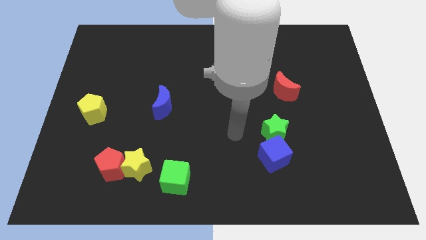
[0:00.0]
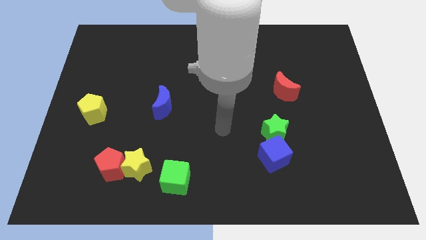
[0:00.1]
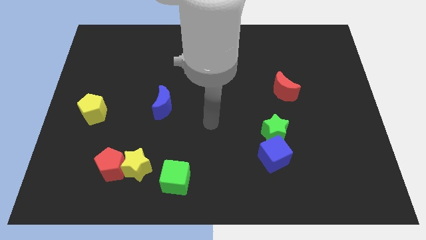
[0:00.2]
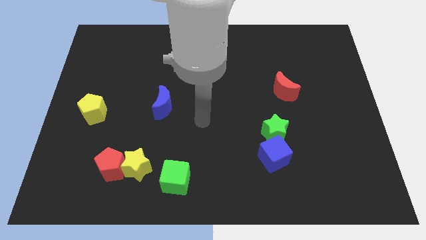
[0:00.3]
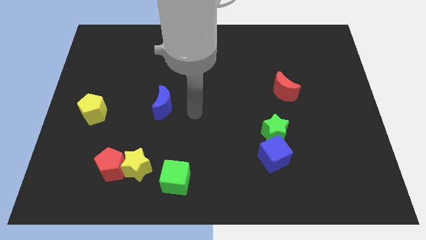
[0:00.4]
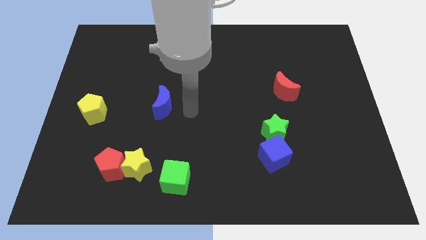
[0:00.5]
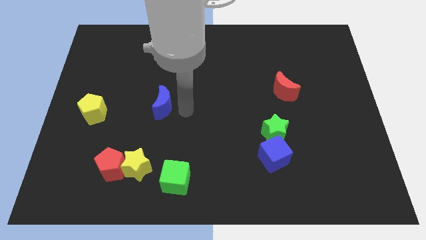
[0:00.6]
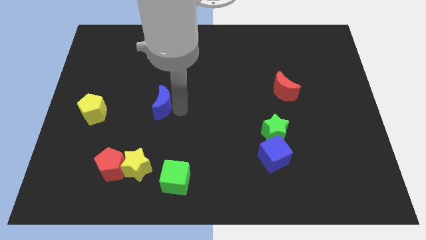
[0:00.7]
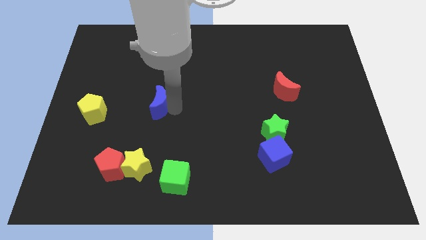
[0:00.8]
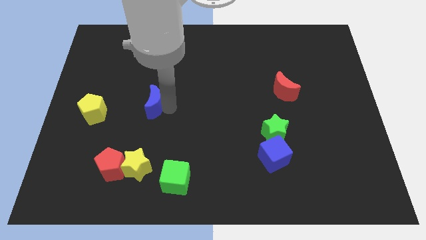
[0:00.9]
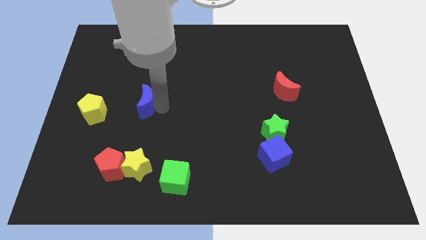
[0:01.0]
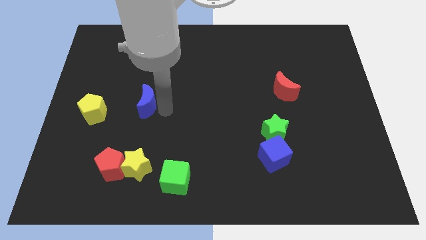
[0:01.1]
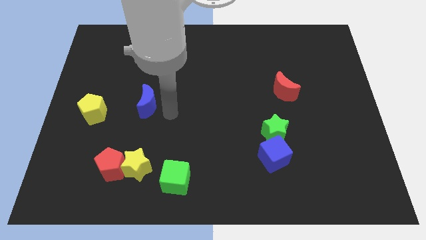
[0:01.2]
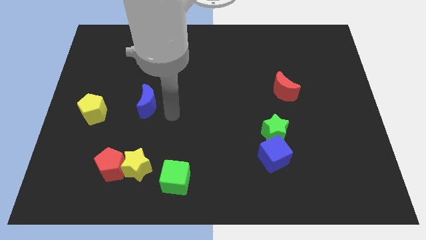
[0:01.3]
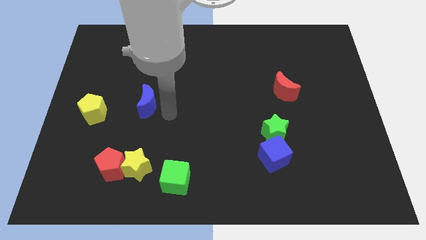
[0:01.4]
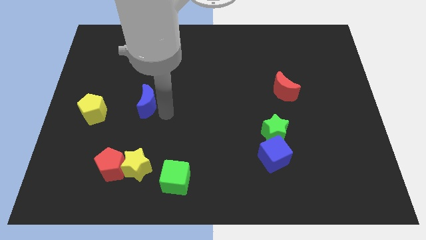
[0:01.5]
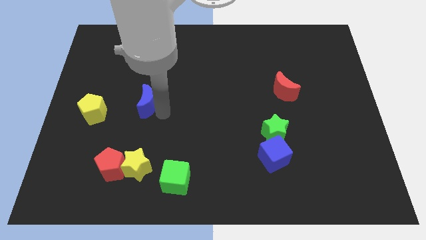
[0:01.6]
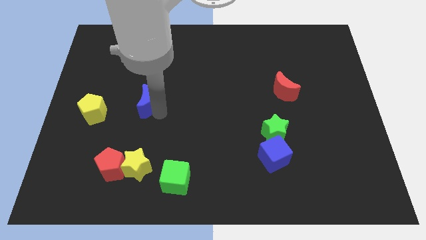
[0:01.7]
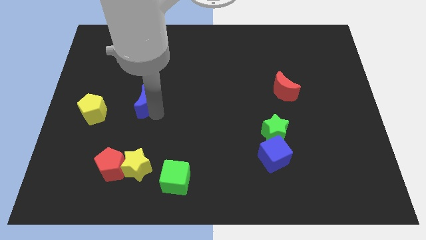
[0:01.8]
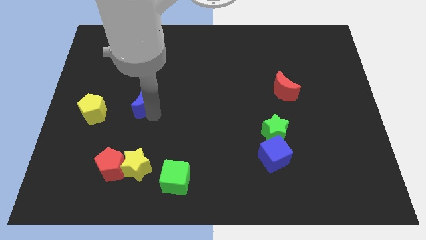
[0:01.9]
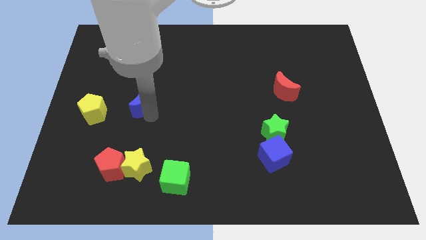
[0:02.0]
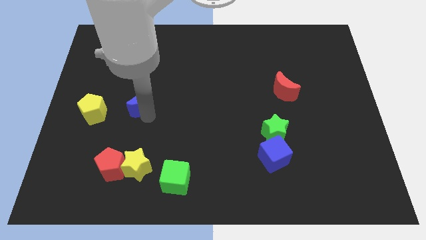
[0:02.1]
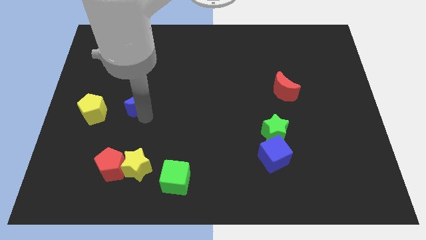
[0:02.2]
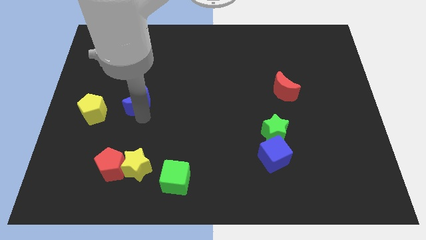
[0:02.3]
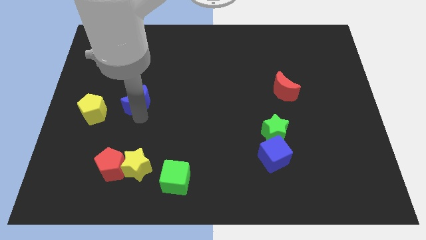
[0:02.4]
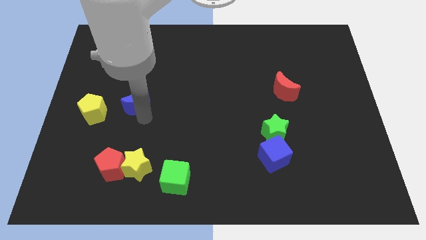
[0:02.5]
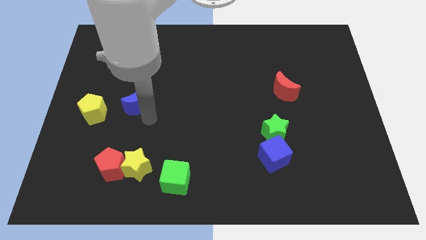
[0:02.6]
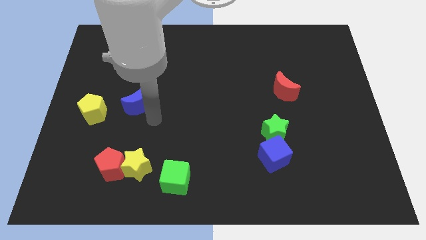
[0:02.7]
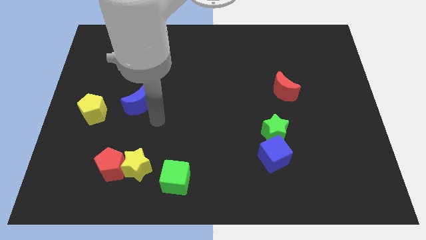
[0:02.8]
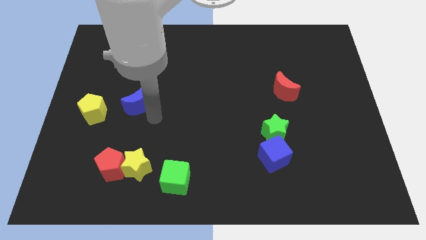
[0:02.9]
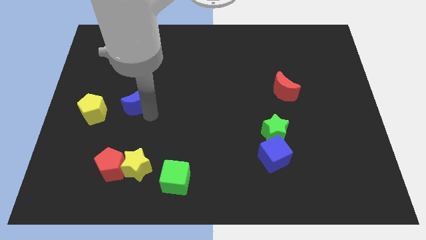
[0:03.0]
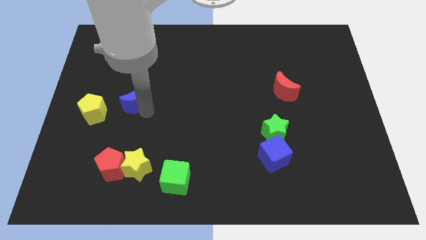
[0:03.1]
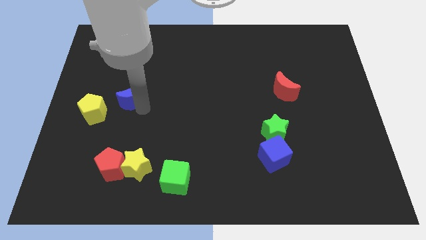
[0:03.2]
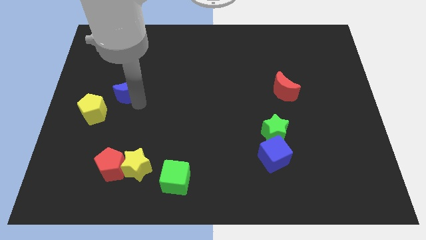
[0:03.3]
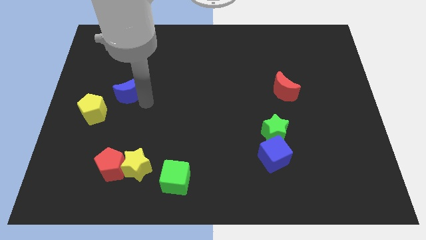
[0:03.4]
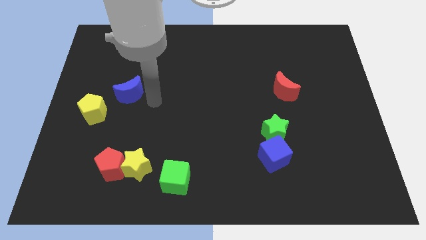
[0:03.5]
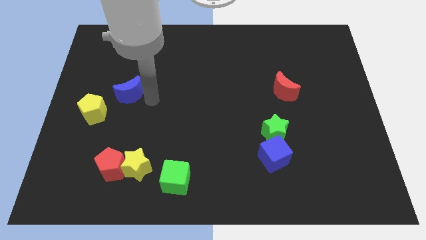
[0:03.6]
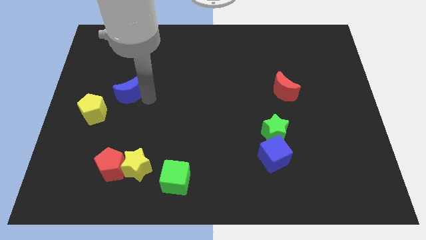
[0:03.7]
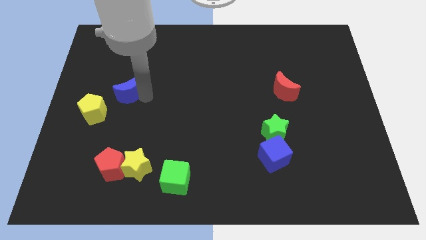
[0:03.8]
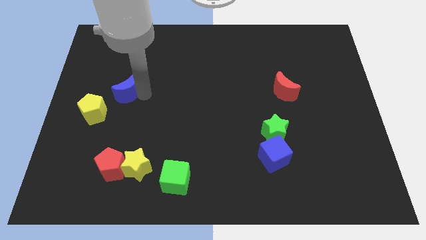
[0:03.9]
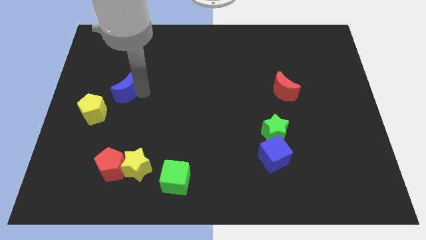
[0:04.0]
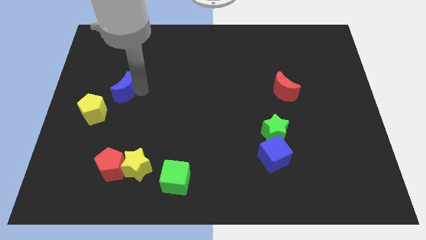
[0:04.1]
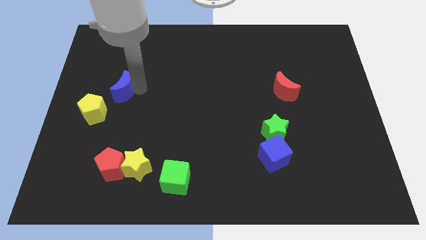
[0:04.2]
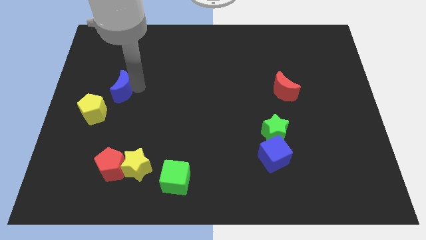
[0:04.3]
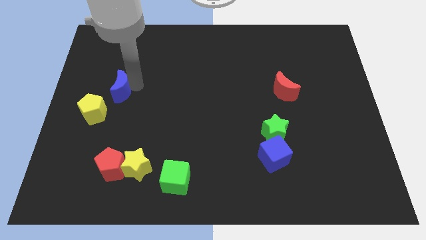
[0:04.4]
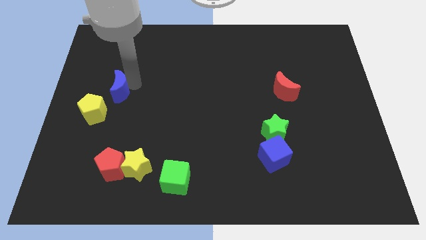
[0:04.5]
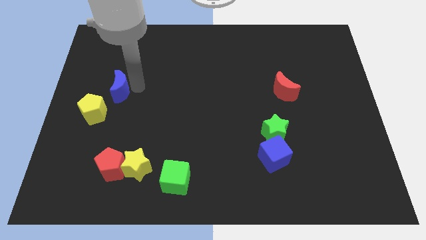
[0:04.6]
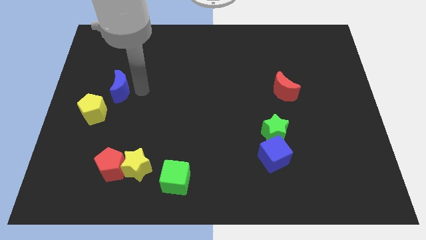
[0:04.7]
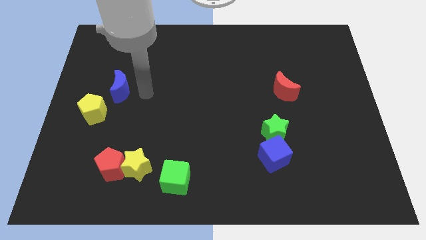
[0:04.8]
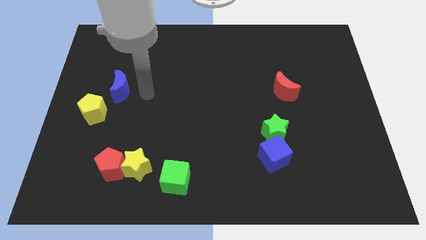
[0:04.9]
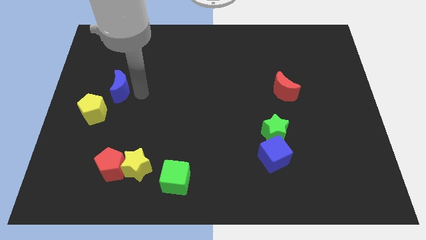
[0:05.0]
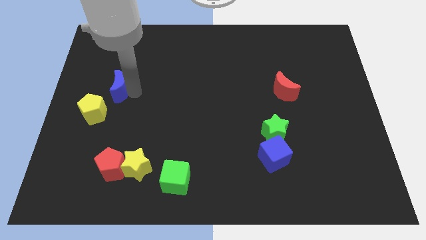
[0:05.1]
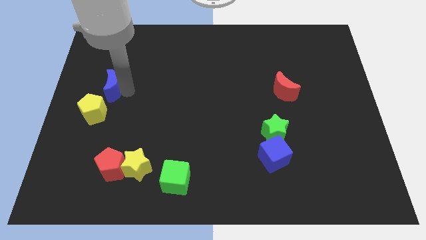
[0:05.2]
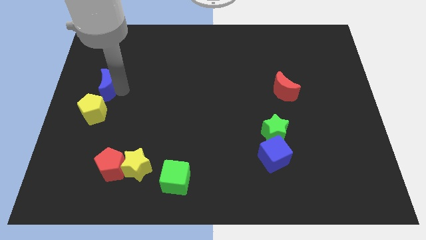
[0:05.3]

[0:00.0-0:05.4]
move the blue moon to the left side of the board
